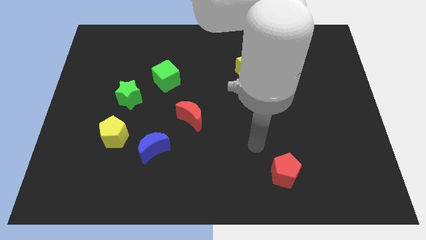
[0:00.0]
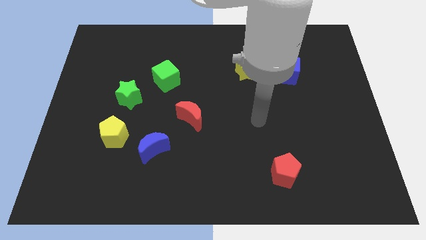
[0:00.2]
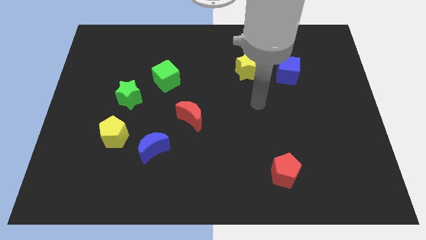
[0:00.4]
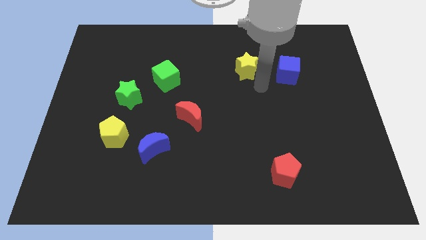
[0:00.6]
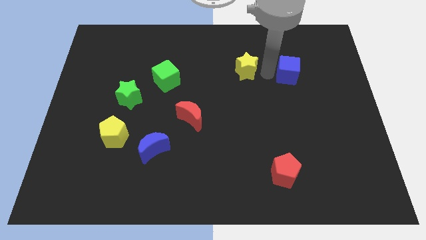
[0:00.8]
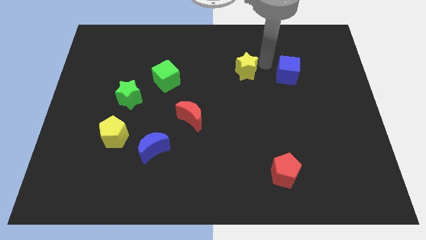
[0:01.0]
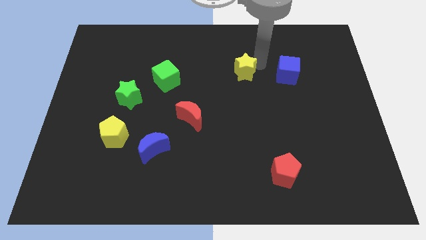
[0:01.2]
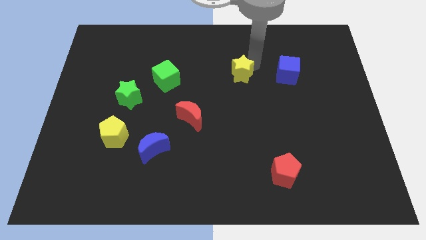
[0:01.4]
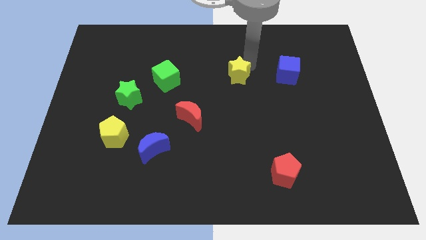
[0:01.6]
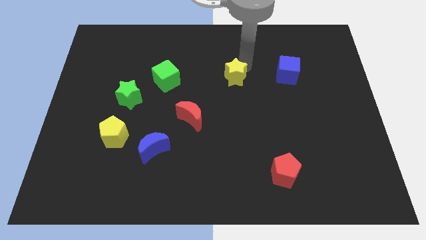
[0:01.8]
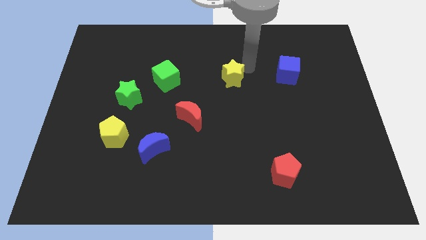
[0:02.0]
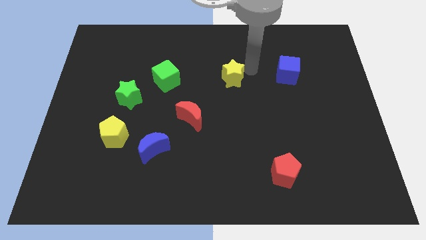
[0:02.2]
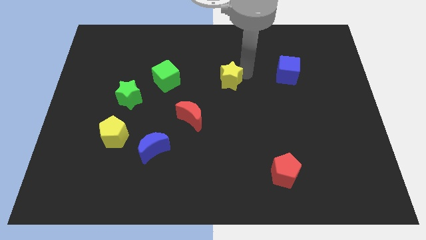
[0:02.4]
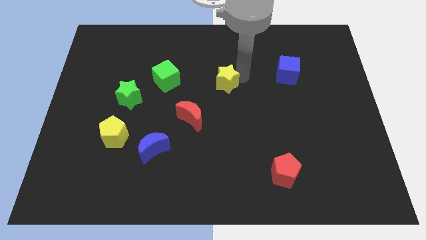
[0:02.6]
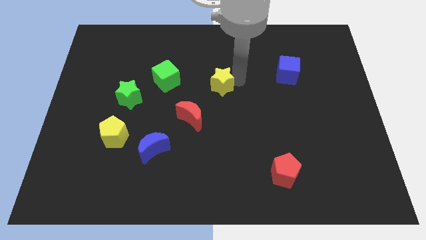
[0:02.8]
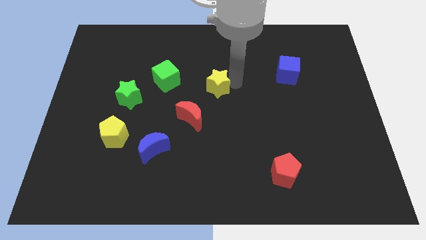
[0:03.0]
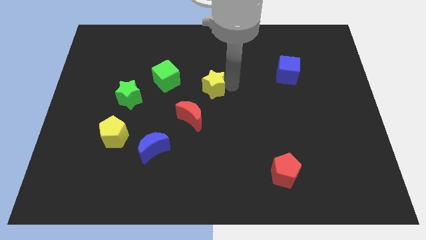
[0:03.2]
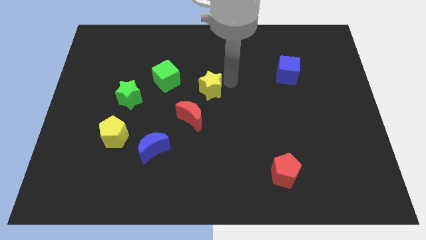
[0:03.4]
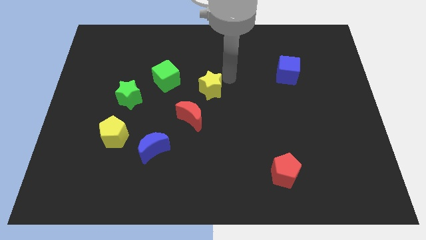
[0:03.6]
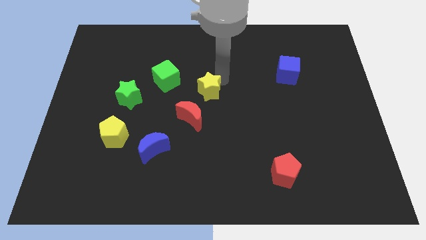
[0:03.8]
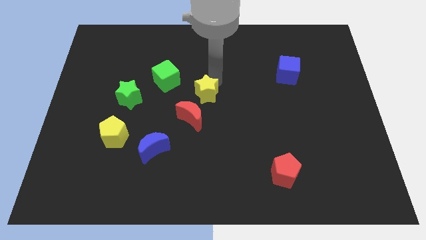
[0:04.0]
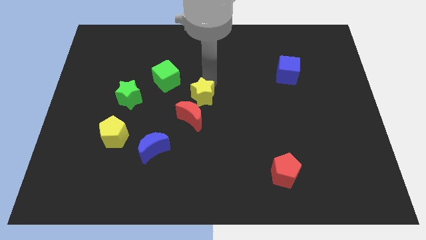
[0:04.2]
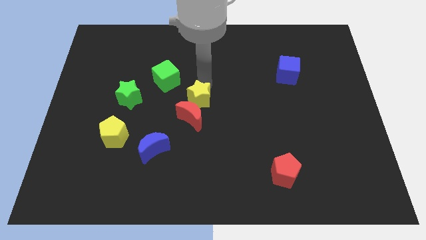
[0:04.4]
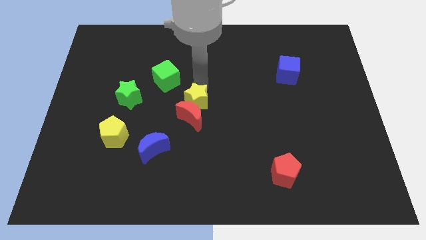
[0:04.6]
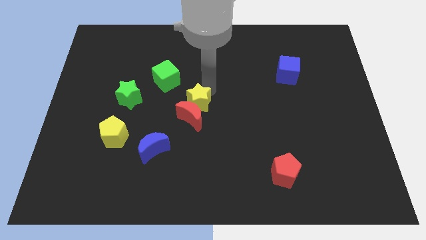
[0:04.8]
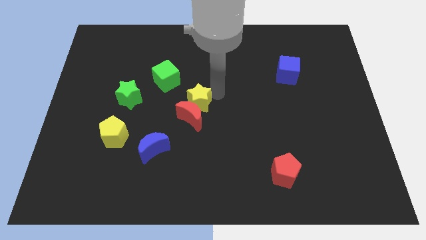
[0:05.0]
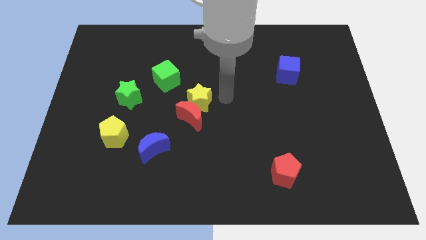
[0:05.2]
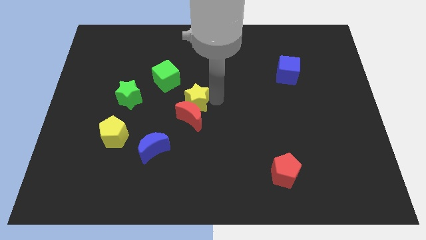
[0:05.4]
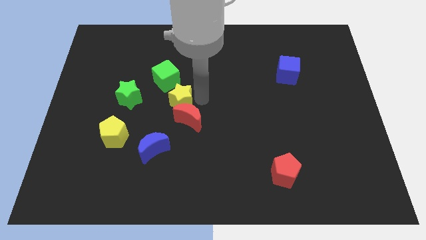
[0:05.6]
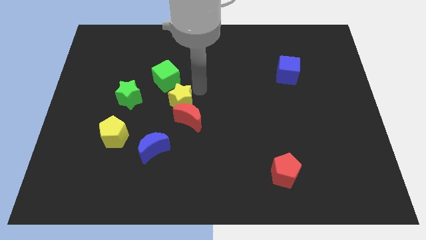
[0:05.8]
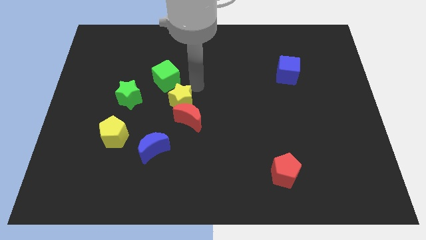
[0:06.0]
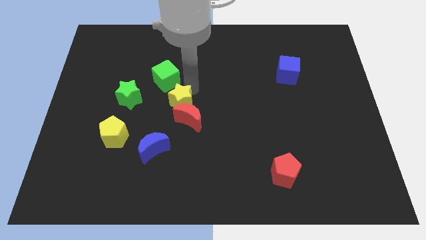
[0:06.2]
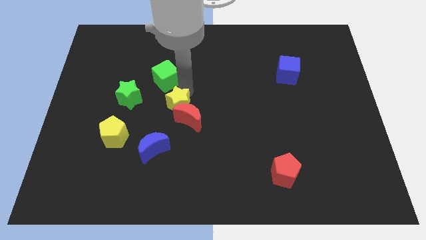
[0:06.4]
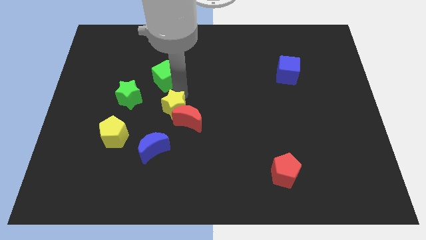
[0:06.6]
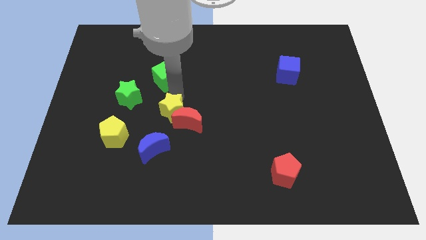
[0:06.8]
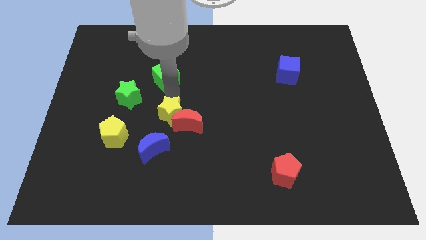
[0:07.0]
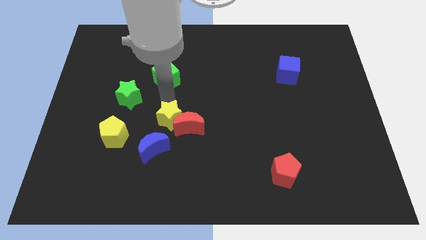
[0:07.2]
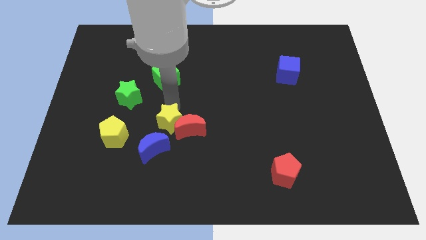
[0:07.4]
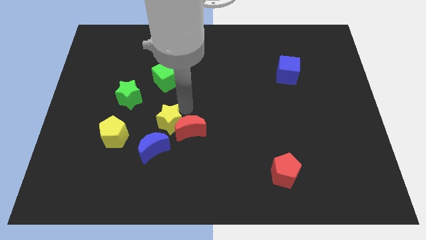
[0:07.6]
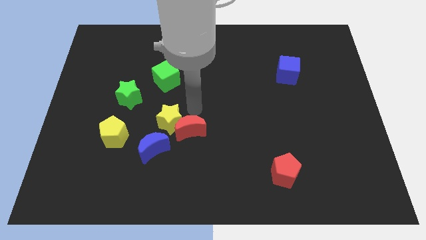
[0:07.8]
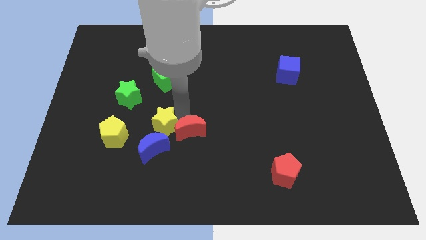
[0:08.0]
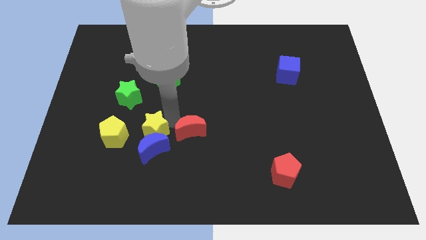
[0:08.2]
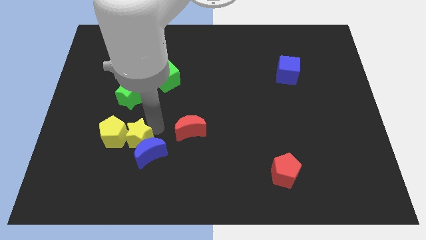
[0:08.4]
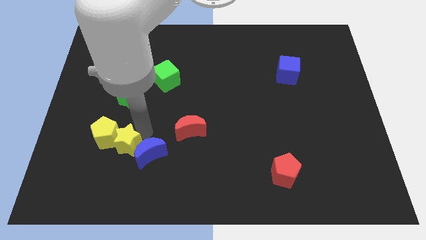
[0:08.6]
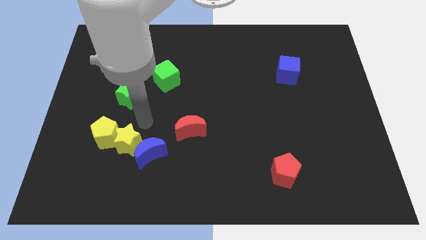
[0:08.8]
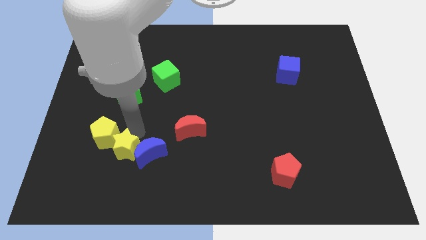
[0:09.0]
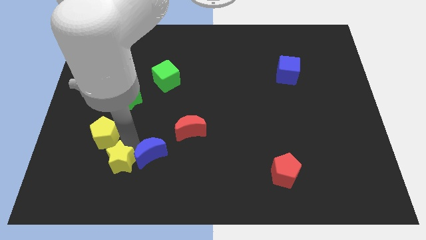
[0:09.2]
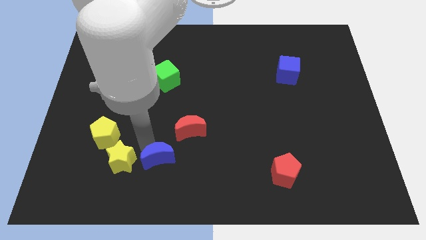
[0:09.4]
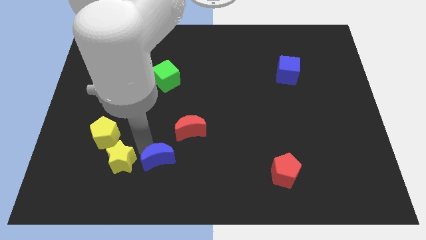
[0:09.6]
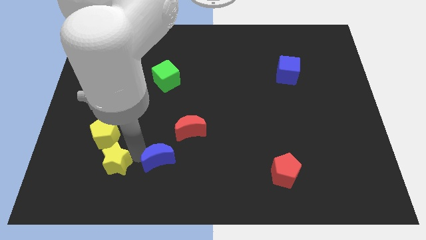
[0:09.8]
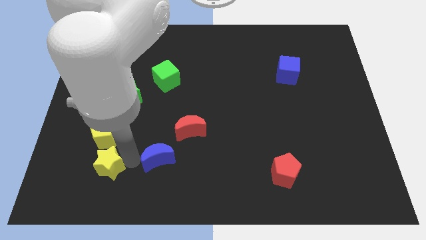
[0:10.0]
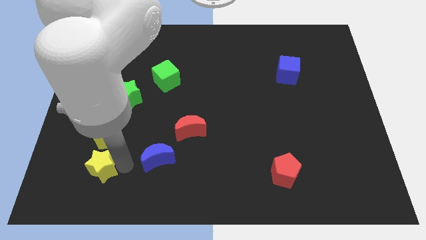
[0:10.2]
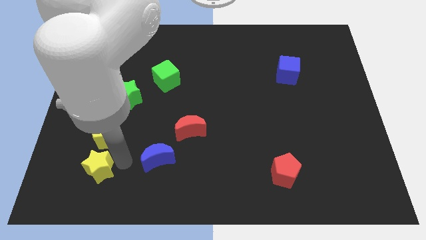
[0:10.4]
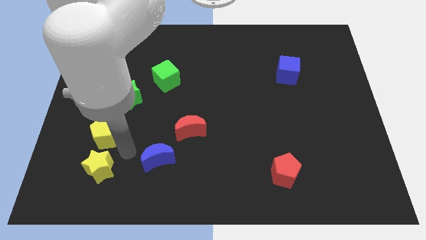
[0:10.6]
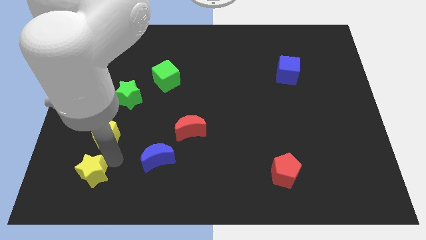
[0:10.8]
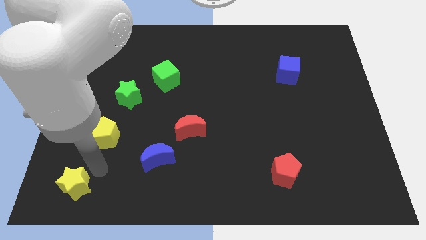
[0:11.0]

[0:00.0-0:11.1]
slide the yellow star to the bottom left of the board
